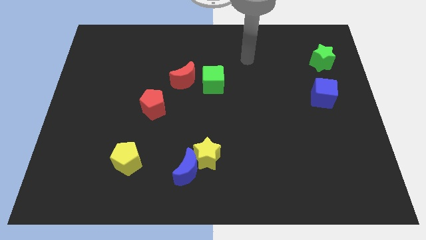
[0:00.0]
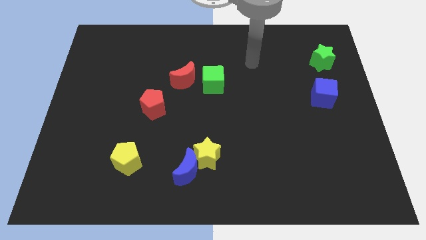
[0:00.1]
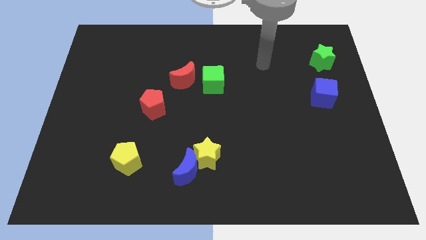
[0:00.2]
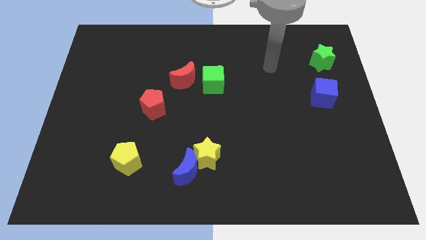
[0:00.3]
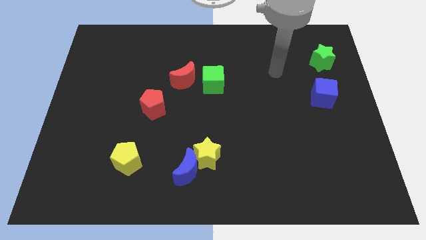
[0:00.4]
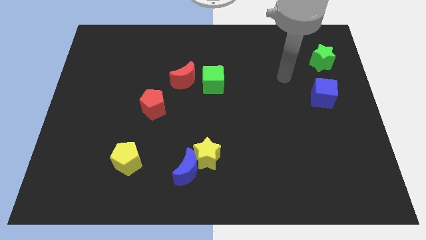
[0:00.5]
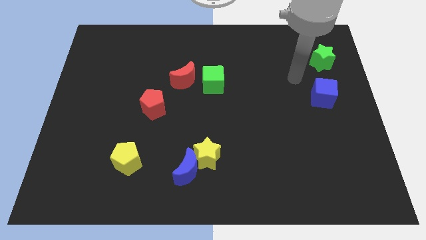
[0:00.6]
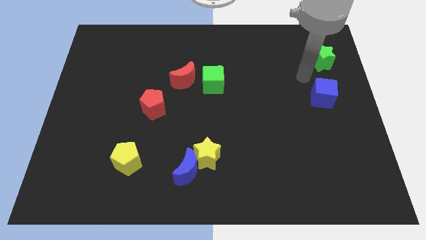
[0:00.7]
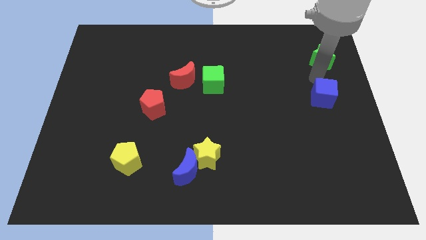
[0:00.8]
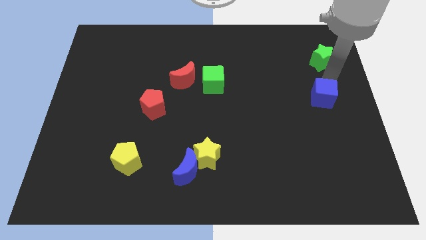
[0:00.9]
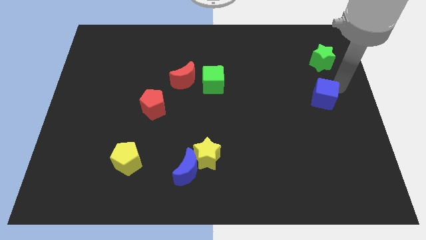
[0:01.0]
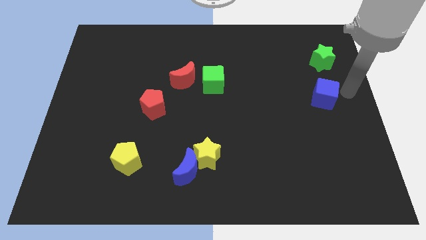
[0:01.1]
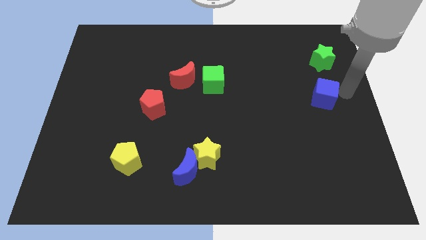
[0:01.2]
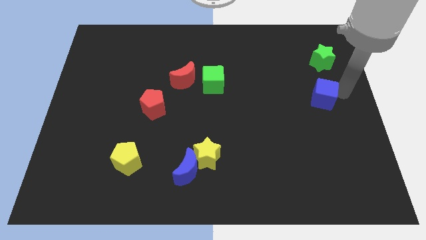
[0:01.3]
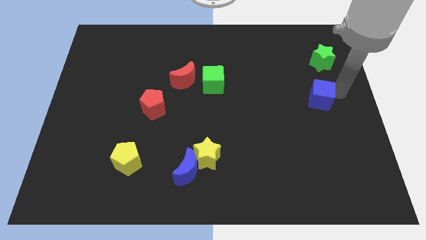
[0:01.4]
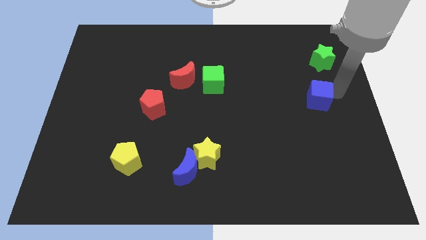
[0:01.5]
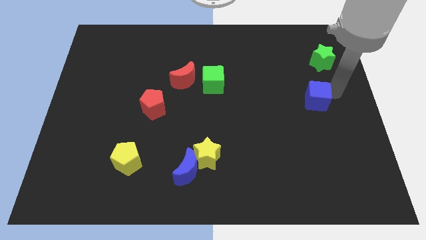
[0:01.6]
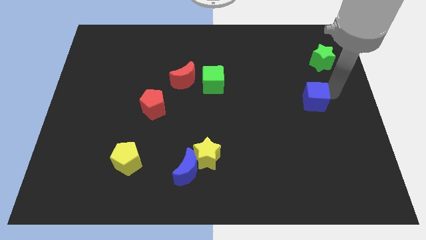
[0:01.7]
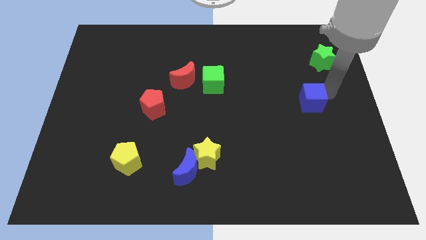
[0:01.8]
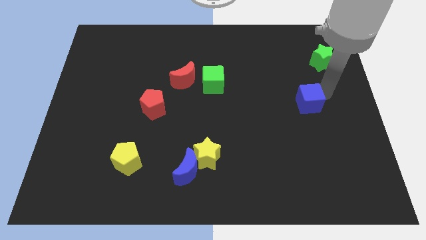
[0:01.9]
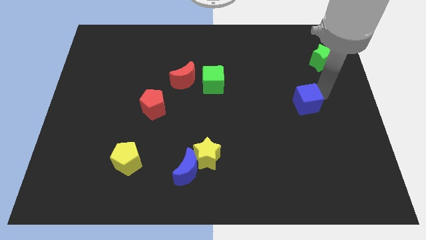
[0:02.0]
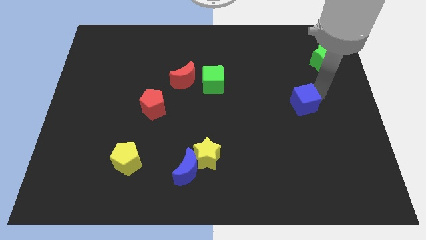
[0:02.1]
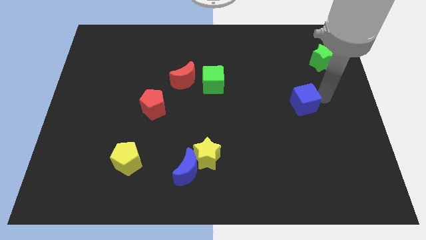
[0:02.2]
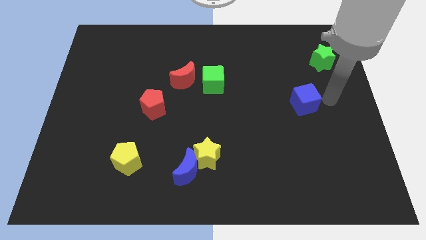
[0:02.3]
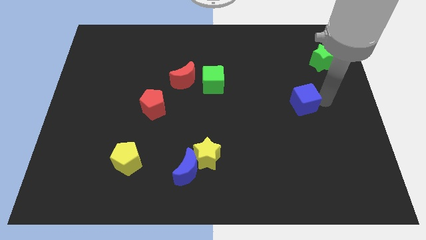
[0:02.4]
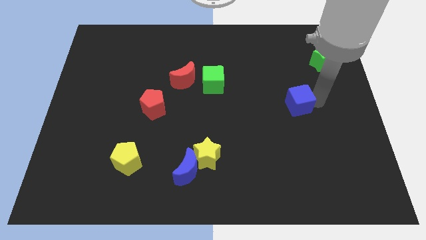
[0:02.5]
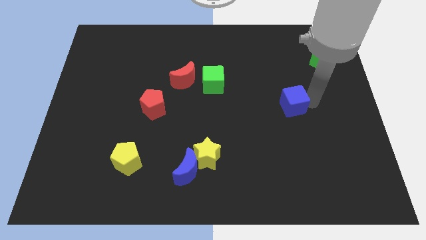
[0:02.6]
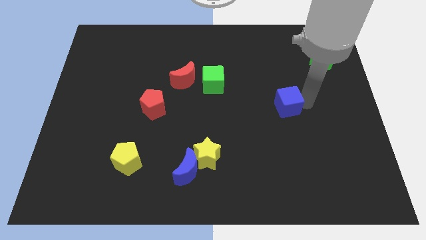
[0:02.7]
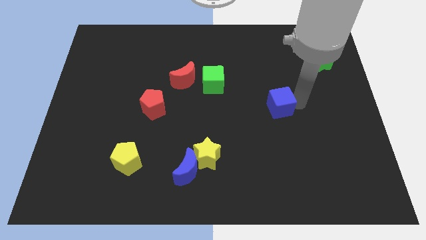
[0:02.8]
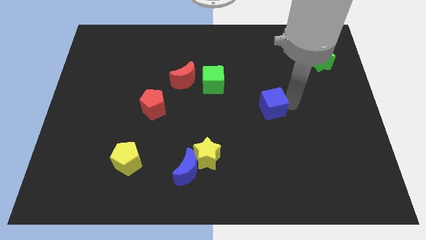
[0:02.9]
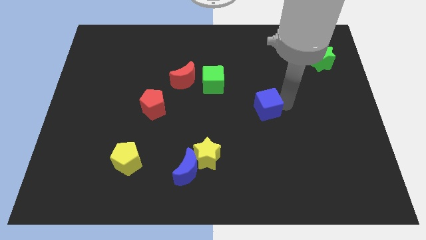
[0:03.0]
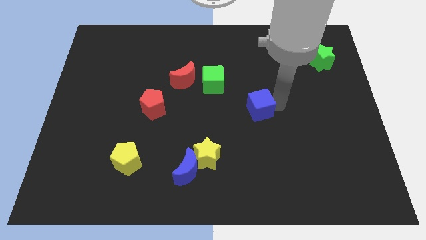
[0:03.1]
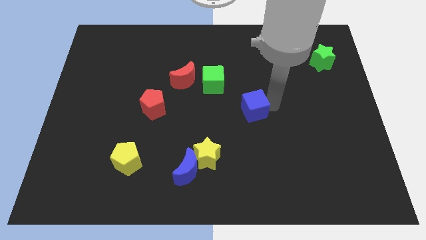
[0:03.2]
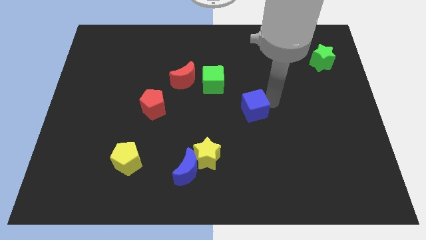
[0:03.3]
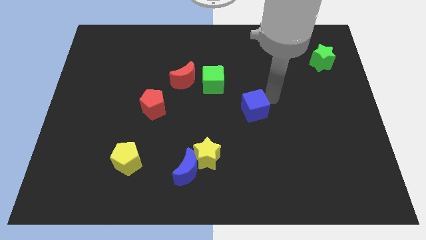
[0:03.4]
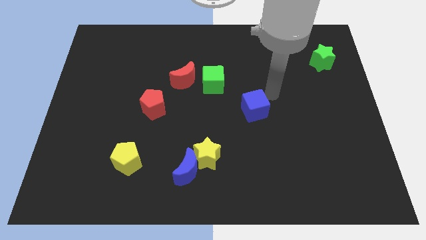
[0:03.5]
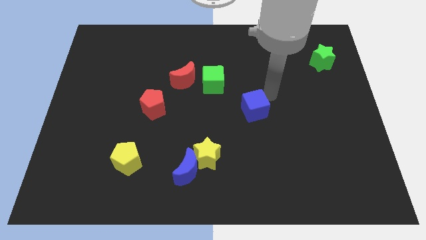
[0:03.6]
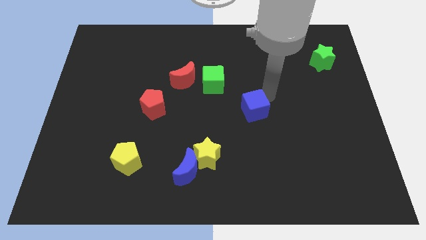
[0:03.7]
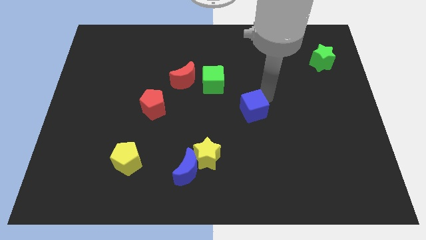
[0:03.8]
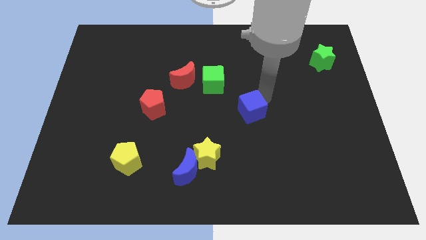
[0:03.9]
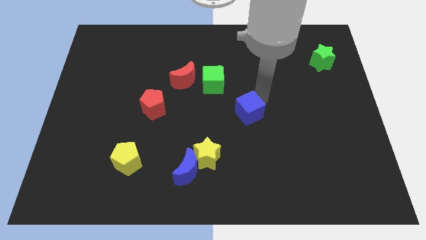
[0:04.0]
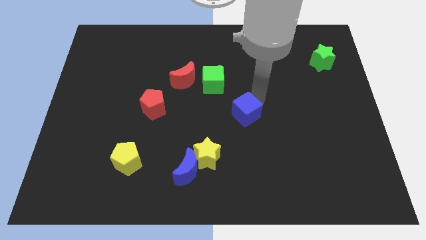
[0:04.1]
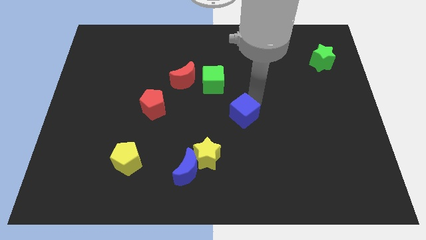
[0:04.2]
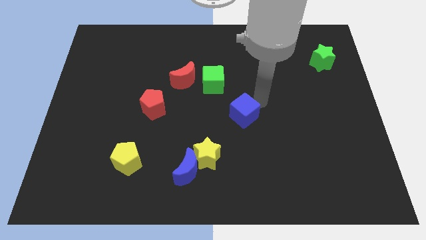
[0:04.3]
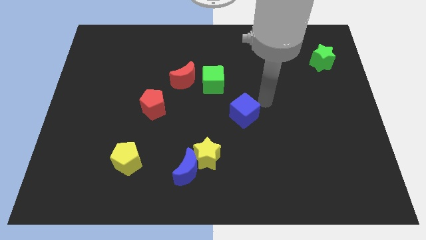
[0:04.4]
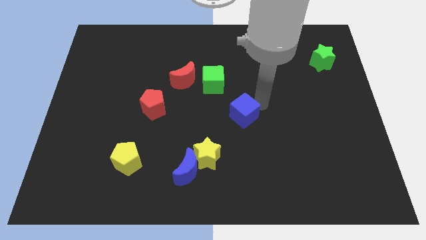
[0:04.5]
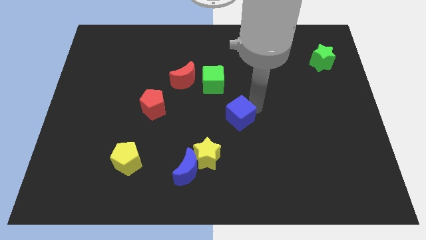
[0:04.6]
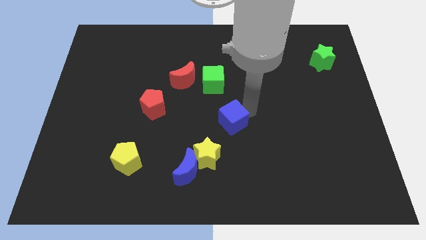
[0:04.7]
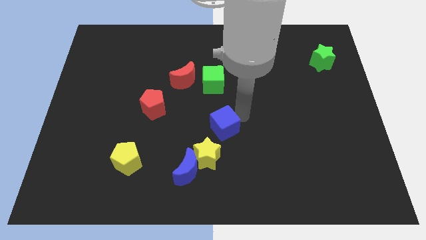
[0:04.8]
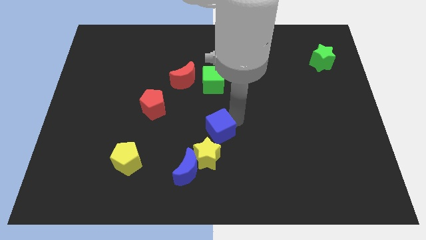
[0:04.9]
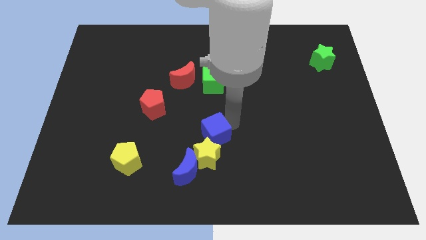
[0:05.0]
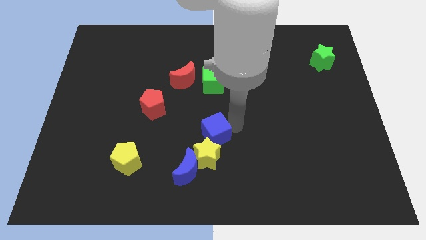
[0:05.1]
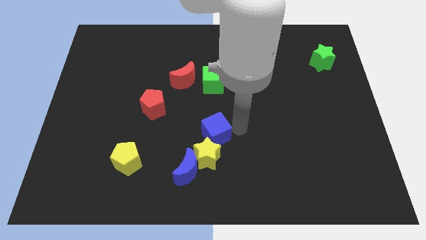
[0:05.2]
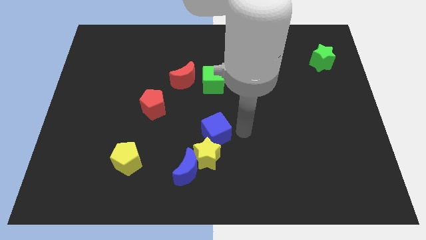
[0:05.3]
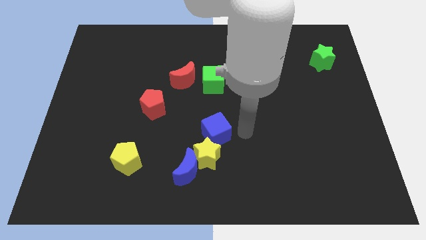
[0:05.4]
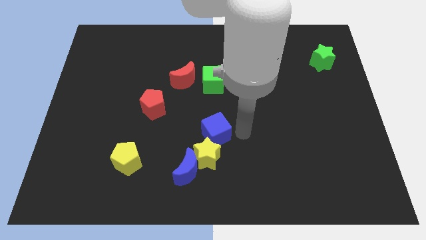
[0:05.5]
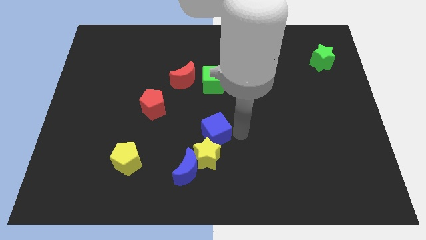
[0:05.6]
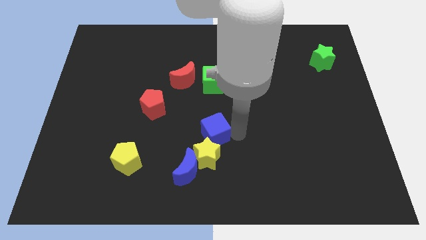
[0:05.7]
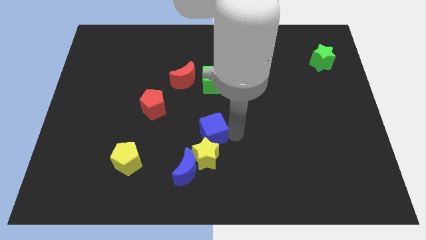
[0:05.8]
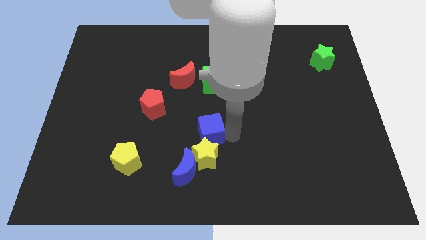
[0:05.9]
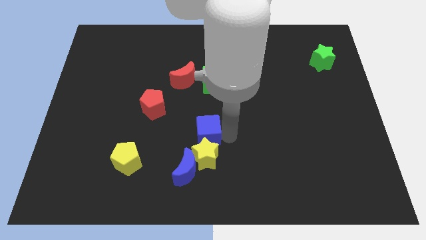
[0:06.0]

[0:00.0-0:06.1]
move the blue cube to the top left of the yellow star

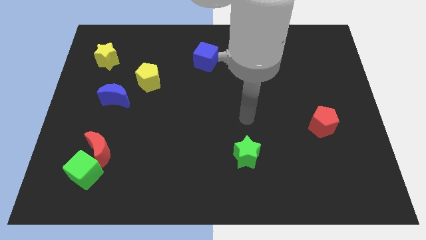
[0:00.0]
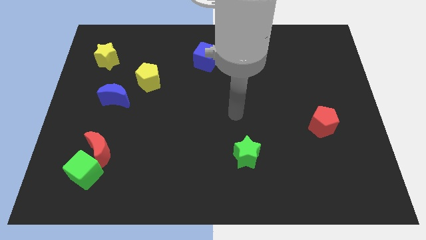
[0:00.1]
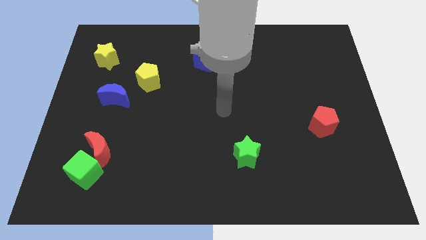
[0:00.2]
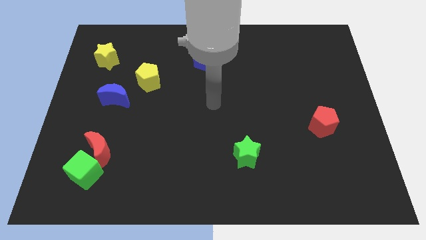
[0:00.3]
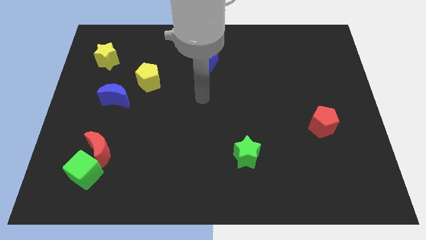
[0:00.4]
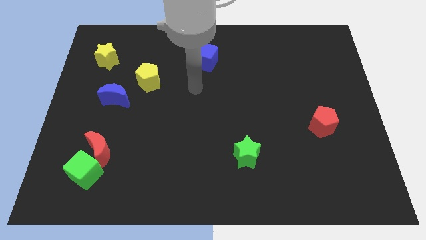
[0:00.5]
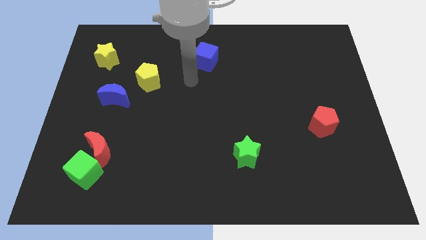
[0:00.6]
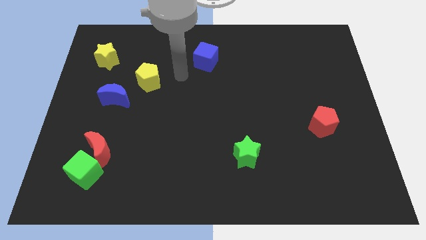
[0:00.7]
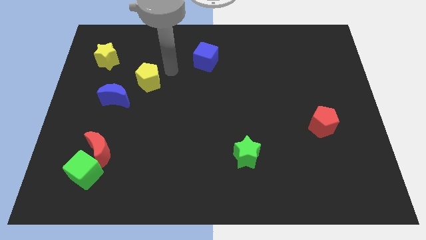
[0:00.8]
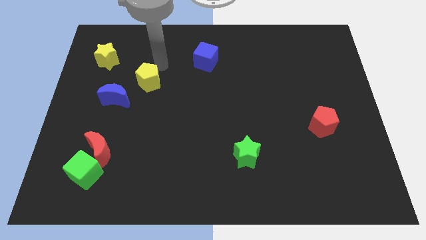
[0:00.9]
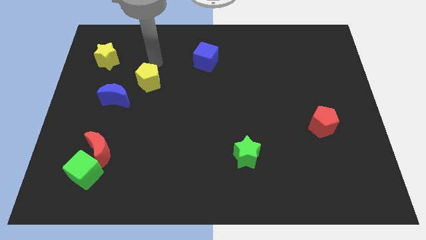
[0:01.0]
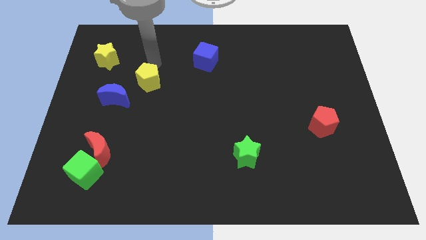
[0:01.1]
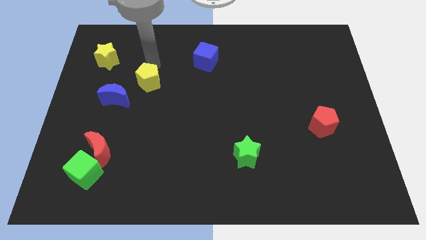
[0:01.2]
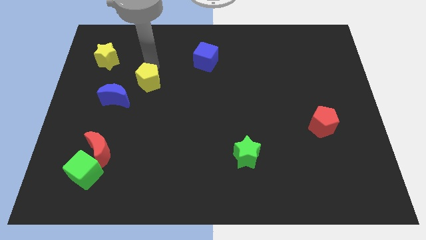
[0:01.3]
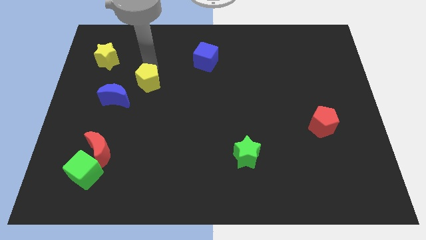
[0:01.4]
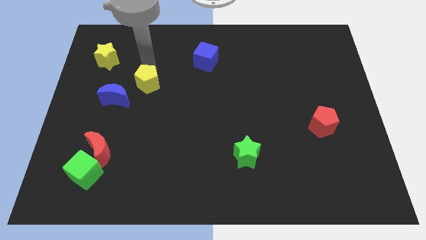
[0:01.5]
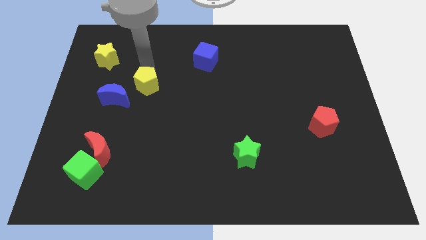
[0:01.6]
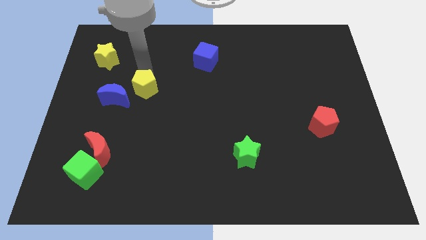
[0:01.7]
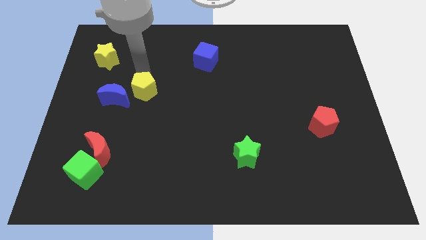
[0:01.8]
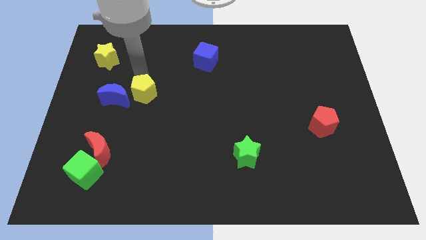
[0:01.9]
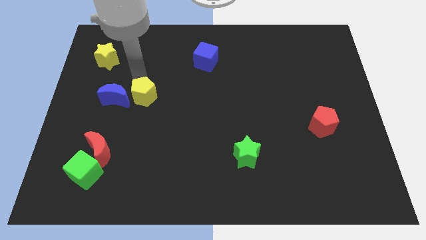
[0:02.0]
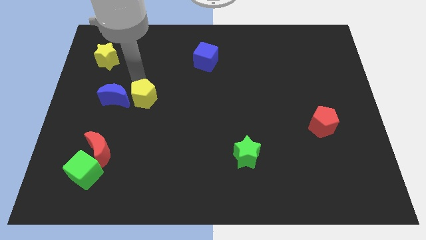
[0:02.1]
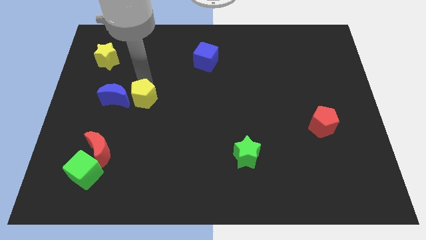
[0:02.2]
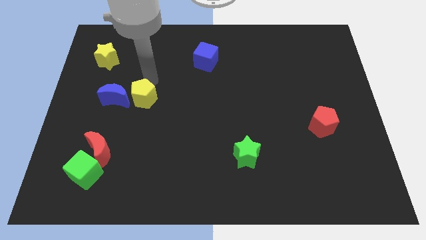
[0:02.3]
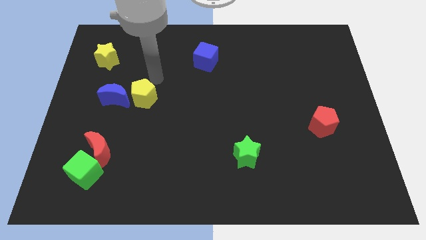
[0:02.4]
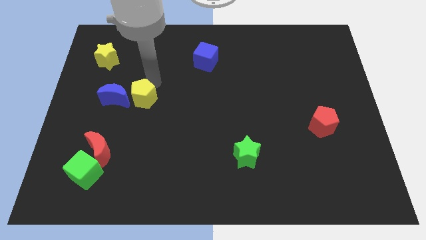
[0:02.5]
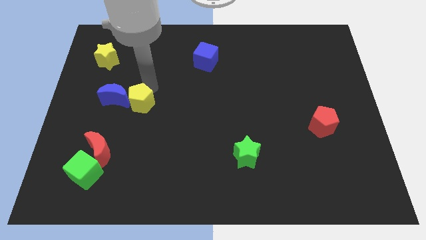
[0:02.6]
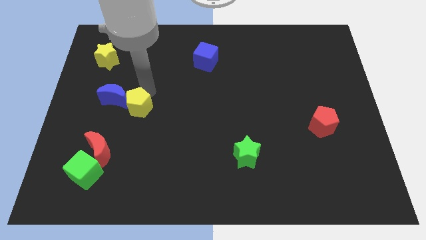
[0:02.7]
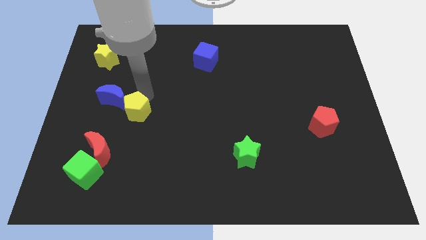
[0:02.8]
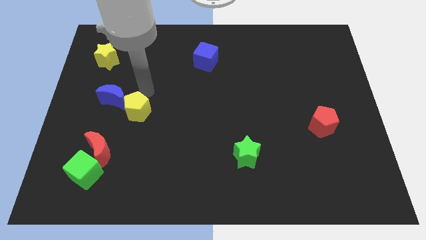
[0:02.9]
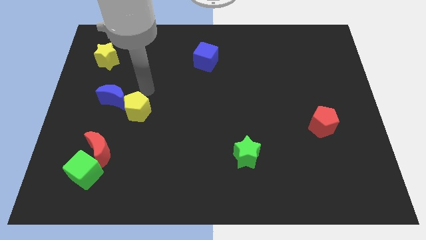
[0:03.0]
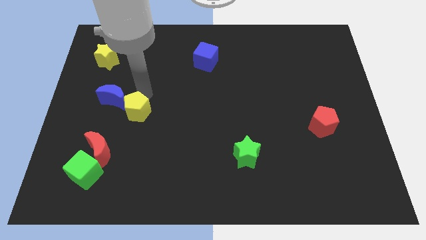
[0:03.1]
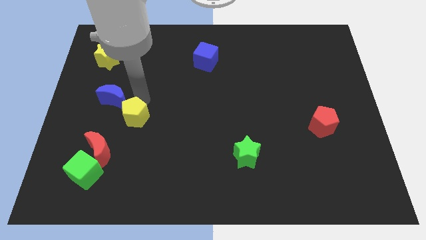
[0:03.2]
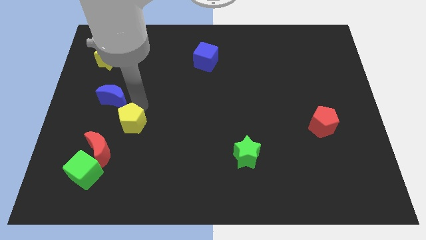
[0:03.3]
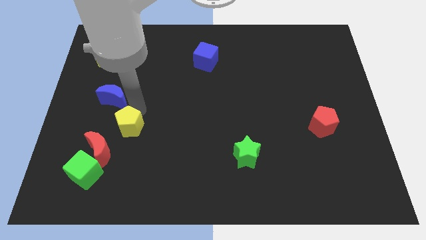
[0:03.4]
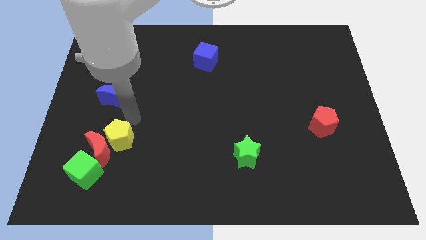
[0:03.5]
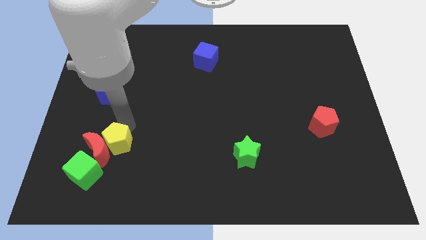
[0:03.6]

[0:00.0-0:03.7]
move the yellow pentagon diagonally down and to the right of the red moon
